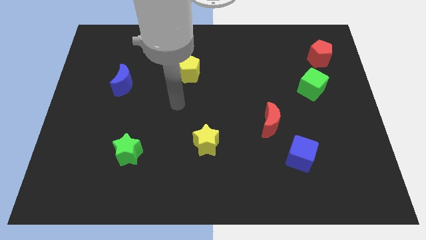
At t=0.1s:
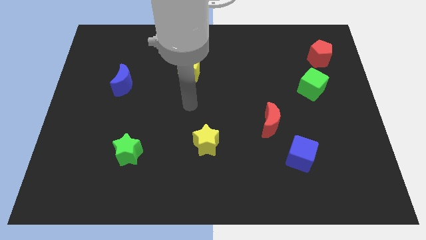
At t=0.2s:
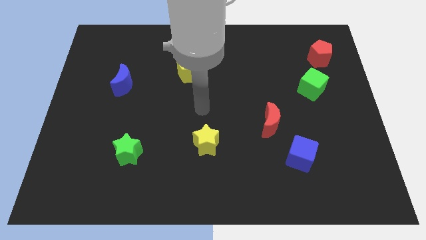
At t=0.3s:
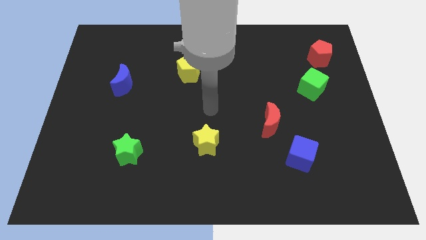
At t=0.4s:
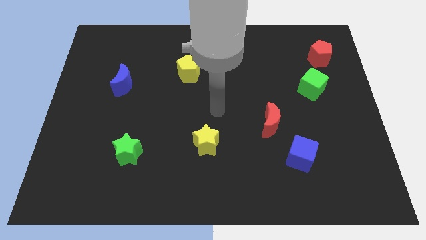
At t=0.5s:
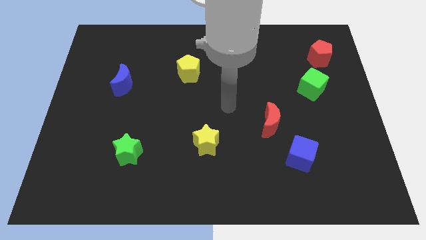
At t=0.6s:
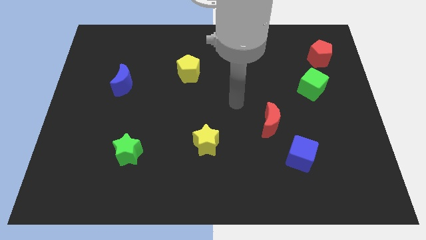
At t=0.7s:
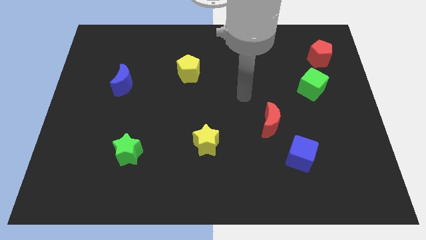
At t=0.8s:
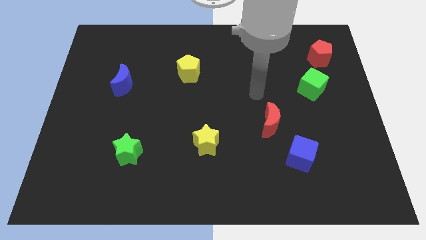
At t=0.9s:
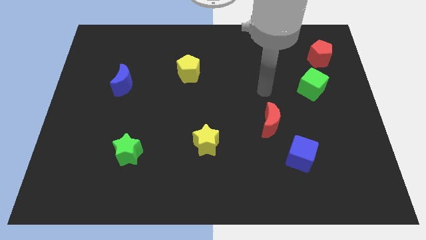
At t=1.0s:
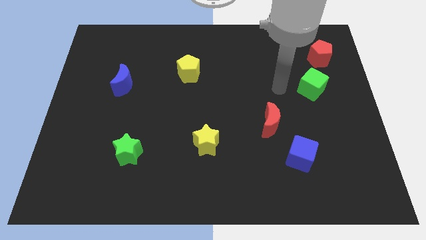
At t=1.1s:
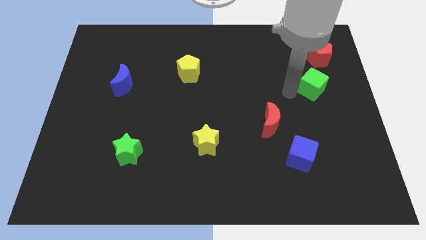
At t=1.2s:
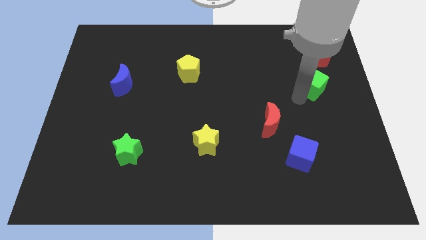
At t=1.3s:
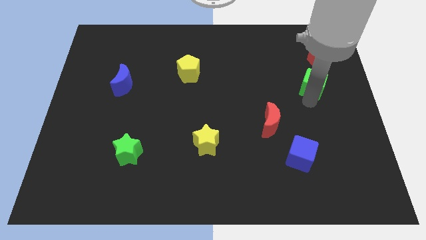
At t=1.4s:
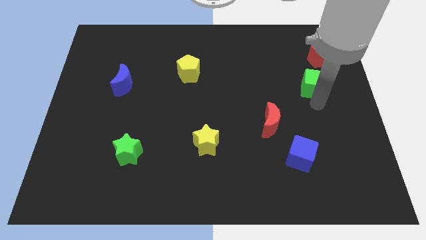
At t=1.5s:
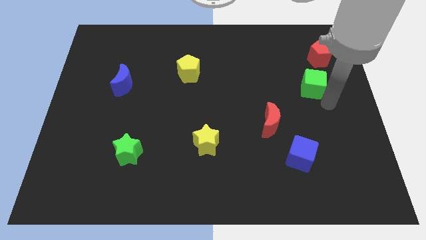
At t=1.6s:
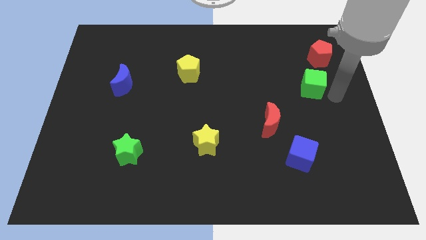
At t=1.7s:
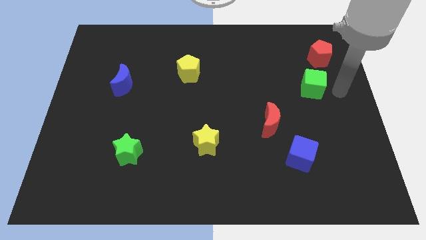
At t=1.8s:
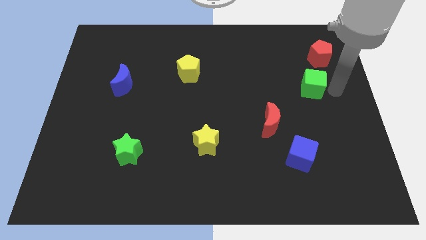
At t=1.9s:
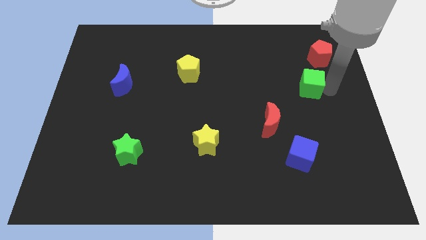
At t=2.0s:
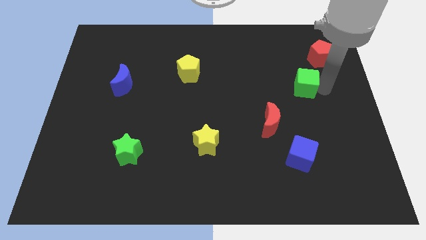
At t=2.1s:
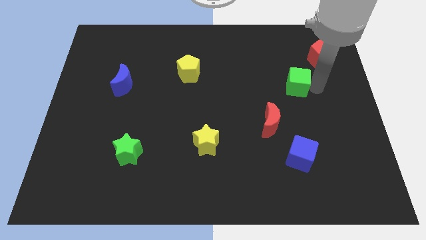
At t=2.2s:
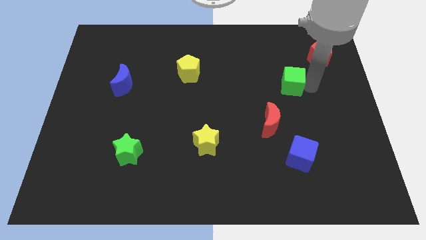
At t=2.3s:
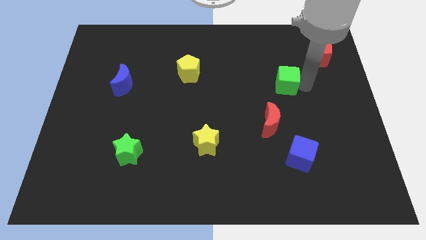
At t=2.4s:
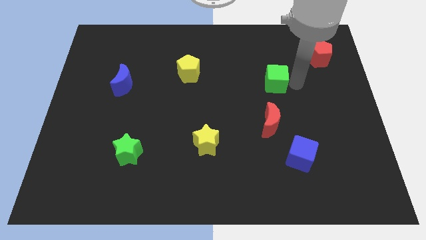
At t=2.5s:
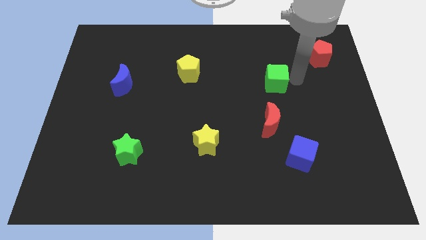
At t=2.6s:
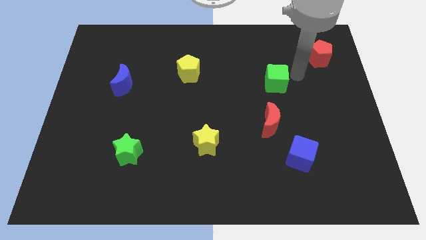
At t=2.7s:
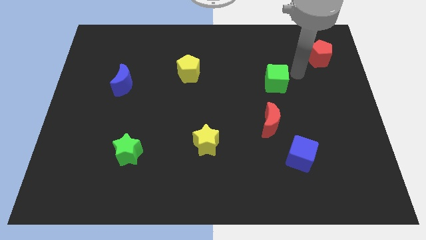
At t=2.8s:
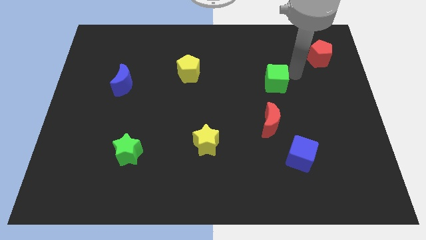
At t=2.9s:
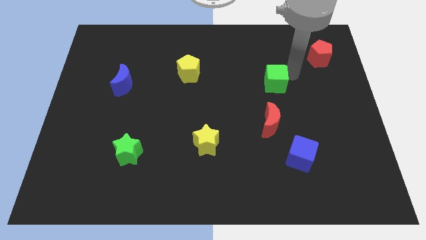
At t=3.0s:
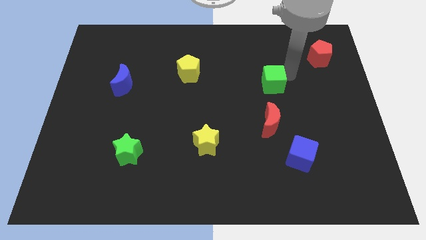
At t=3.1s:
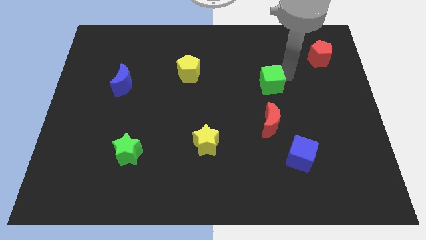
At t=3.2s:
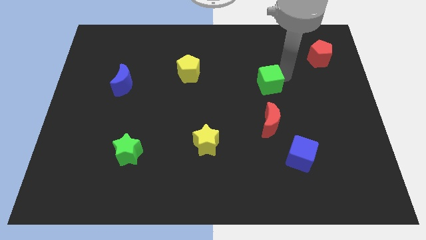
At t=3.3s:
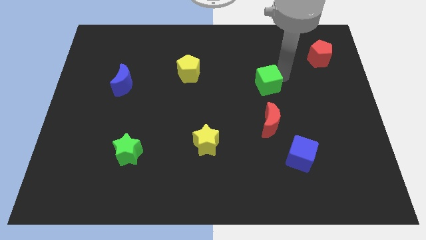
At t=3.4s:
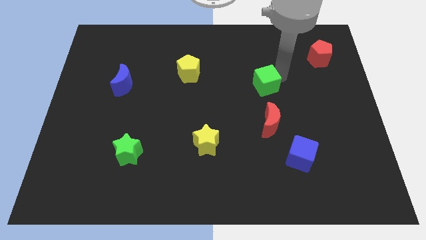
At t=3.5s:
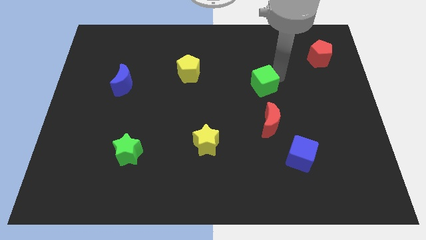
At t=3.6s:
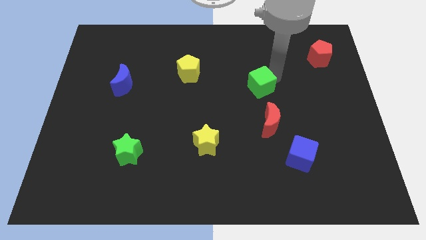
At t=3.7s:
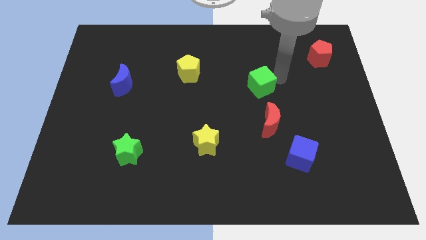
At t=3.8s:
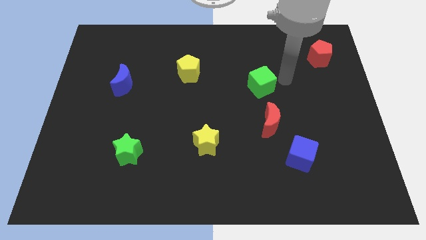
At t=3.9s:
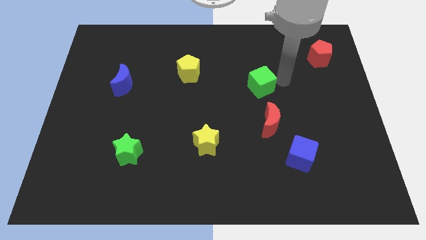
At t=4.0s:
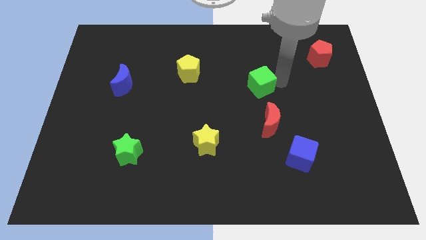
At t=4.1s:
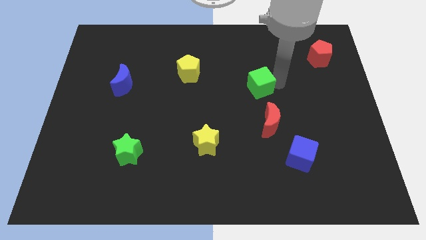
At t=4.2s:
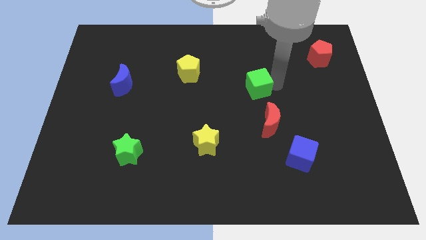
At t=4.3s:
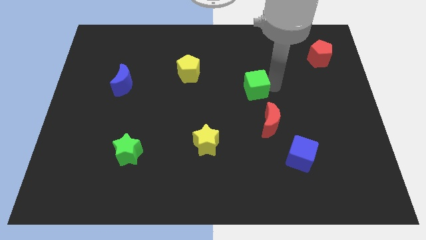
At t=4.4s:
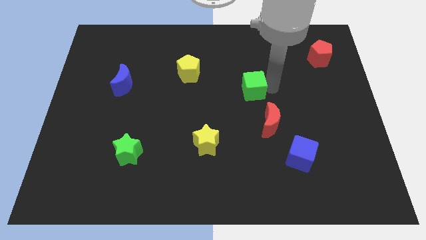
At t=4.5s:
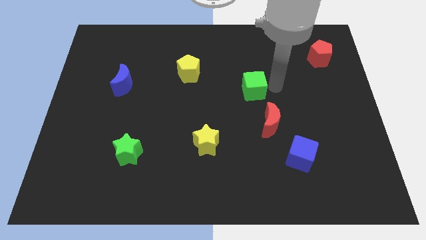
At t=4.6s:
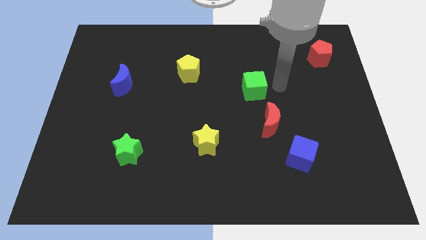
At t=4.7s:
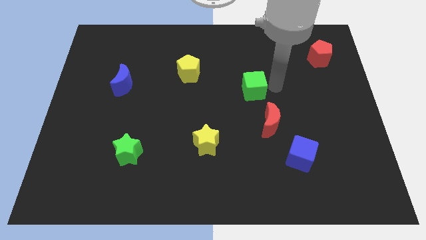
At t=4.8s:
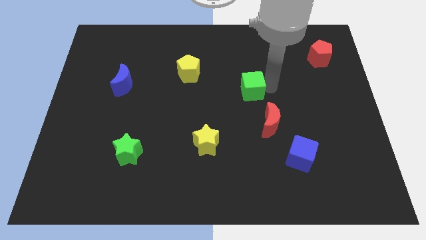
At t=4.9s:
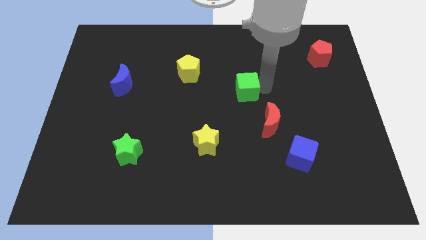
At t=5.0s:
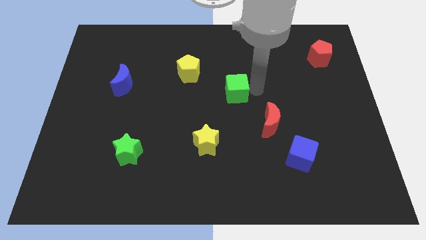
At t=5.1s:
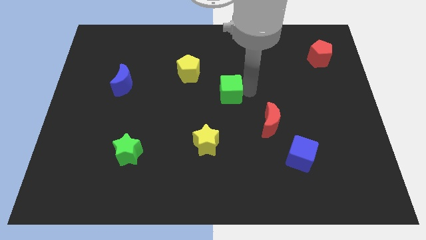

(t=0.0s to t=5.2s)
move the green cube to the left

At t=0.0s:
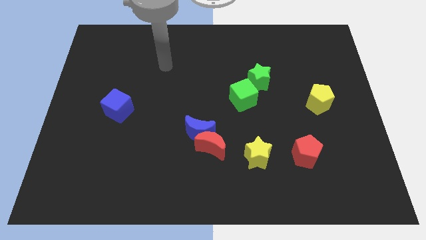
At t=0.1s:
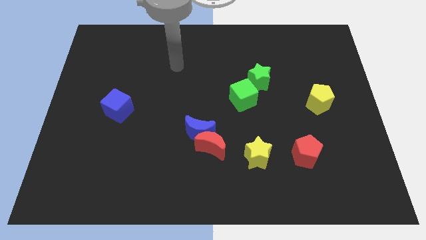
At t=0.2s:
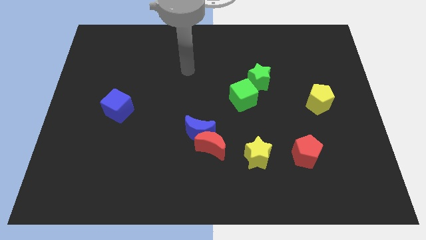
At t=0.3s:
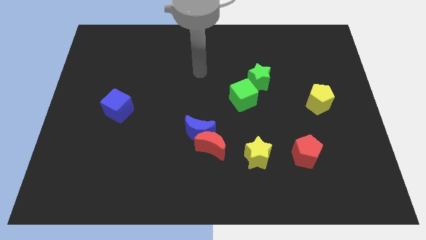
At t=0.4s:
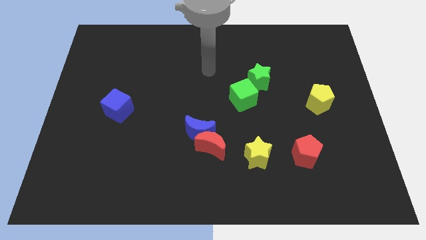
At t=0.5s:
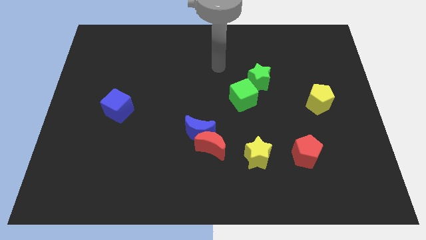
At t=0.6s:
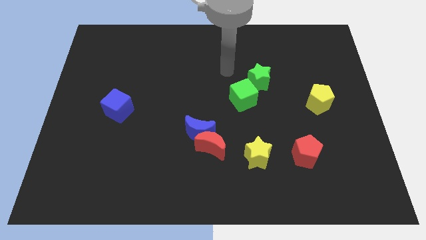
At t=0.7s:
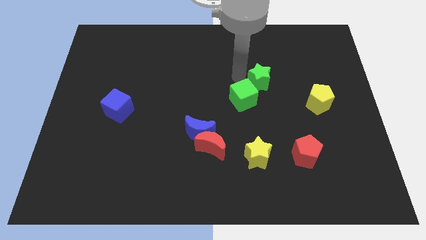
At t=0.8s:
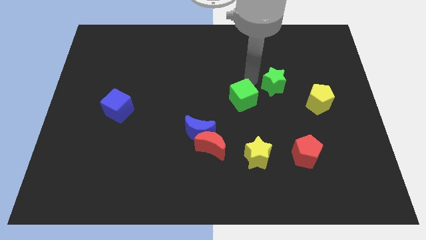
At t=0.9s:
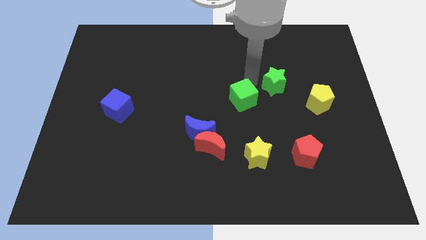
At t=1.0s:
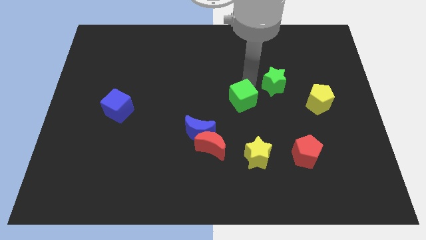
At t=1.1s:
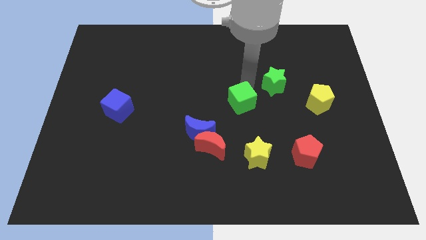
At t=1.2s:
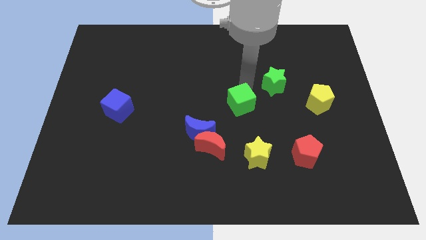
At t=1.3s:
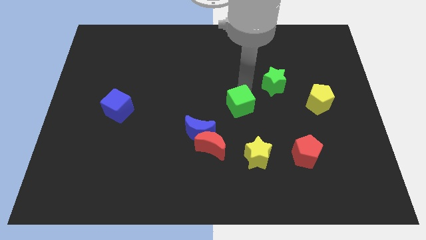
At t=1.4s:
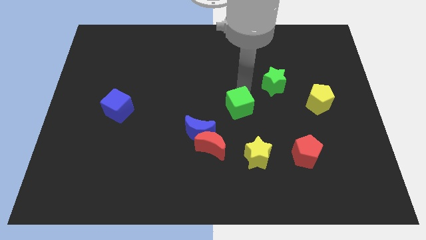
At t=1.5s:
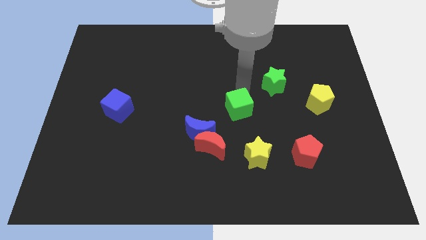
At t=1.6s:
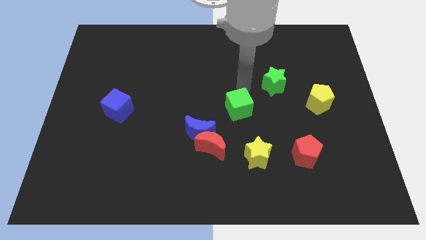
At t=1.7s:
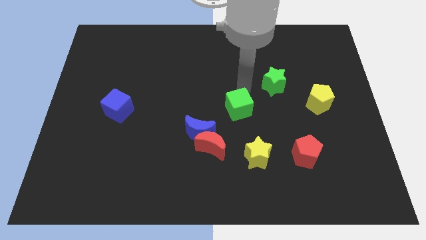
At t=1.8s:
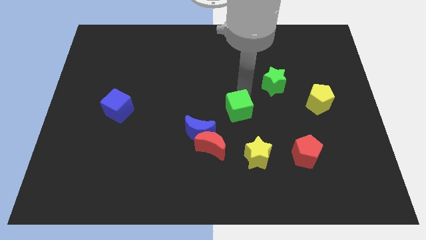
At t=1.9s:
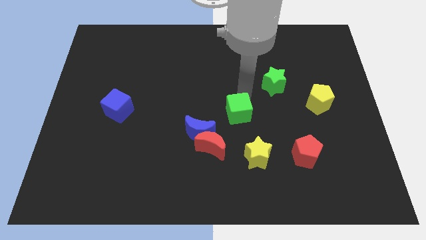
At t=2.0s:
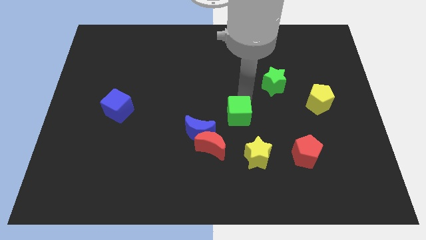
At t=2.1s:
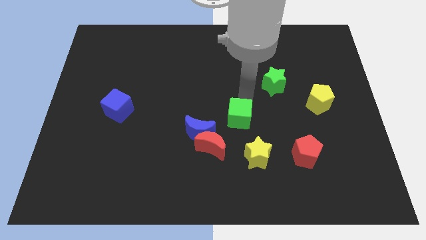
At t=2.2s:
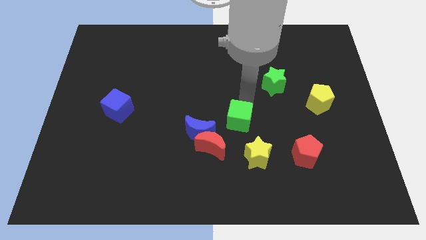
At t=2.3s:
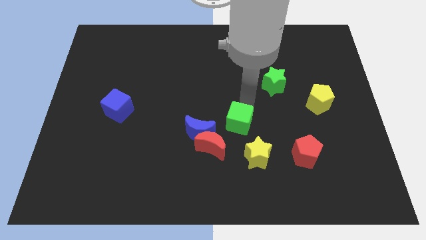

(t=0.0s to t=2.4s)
slide the green cube down slightly

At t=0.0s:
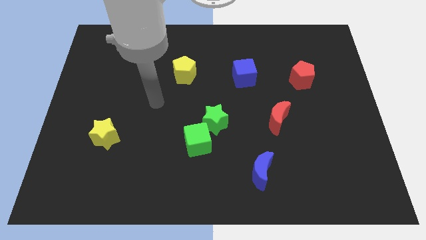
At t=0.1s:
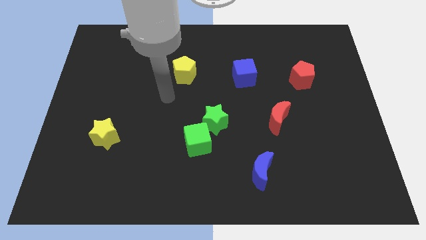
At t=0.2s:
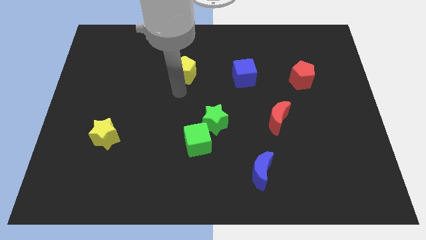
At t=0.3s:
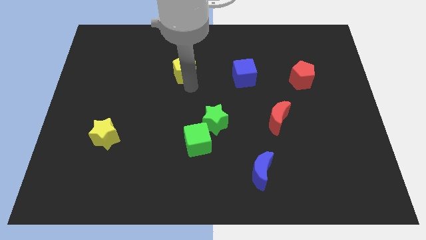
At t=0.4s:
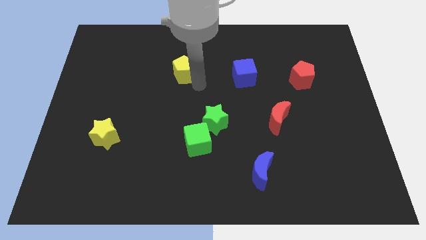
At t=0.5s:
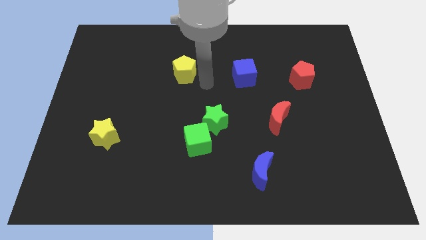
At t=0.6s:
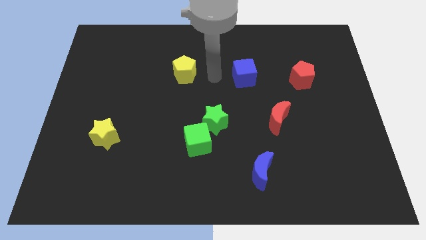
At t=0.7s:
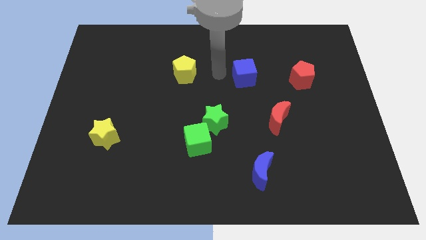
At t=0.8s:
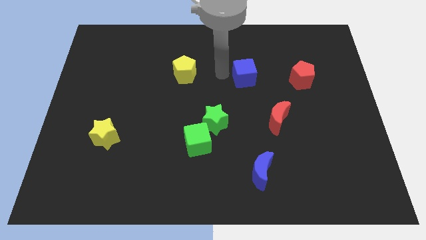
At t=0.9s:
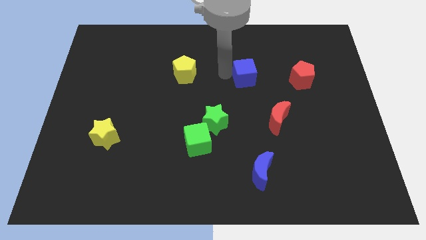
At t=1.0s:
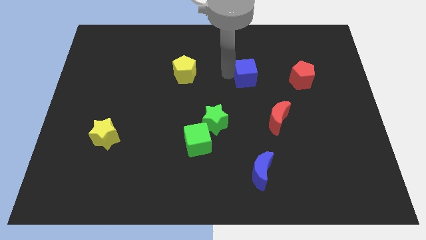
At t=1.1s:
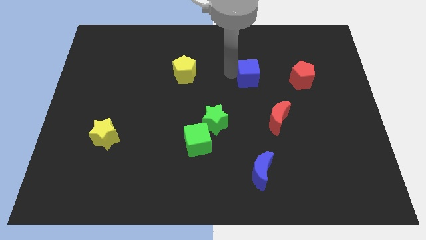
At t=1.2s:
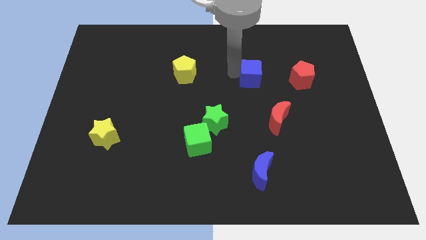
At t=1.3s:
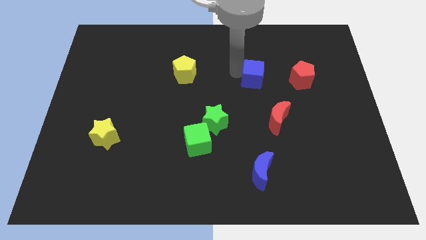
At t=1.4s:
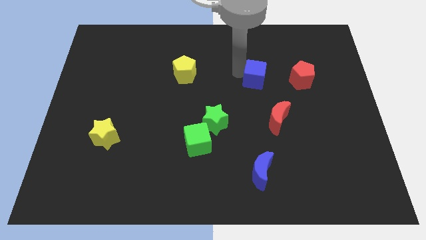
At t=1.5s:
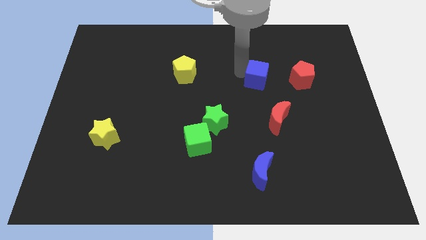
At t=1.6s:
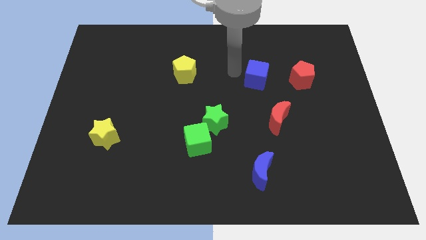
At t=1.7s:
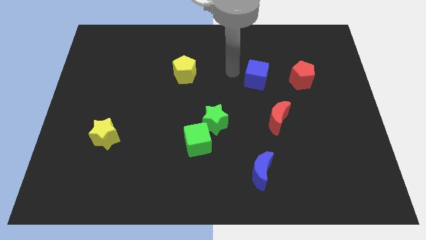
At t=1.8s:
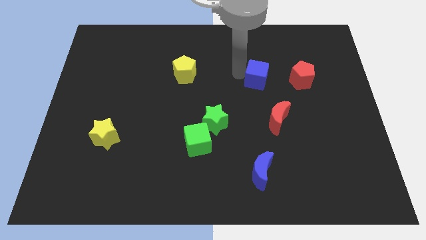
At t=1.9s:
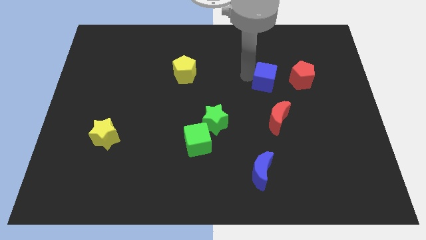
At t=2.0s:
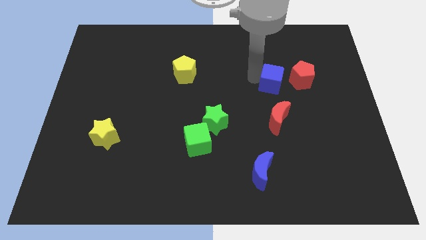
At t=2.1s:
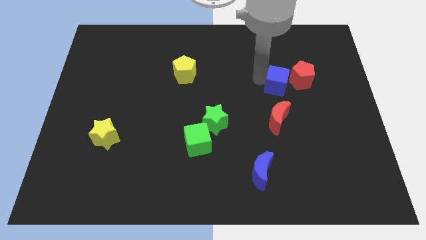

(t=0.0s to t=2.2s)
slightly move the blue cube right
